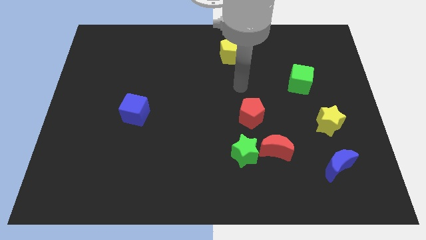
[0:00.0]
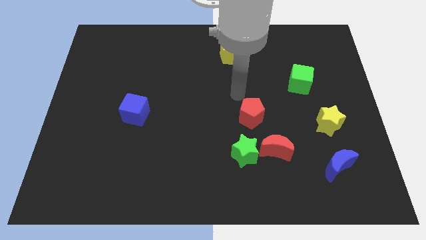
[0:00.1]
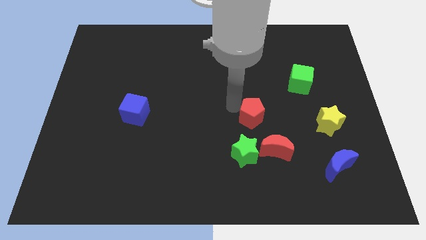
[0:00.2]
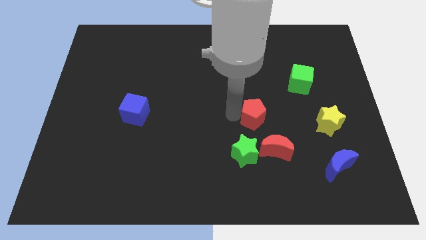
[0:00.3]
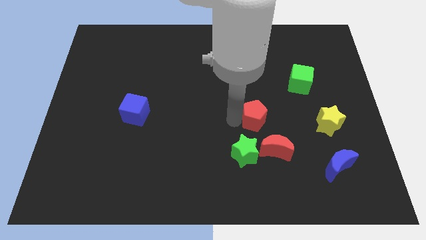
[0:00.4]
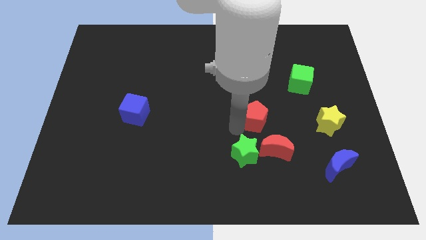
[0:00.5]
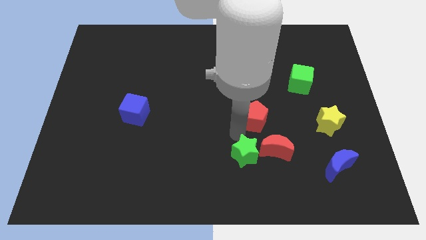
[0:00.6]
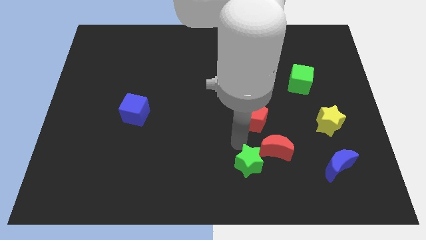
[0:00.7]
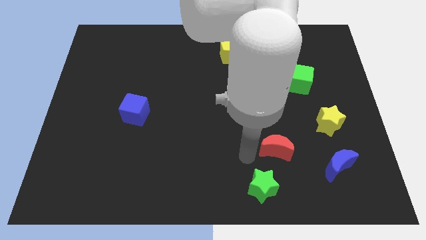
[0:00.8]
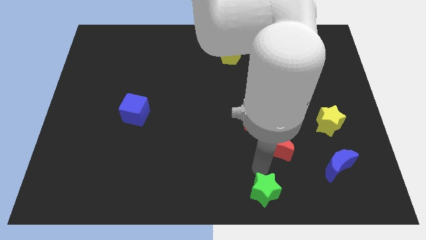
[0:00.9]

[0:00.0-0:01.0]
separate the red moon from the green star

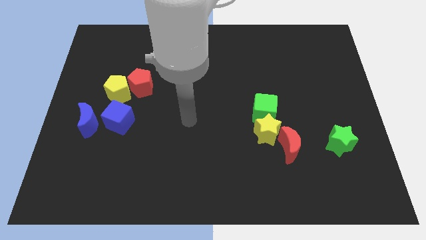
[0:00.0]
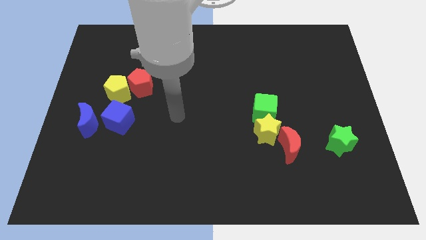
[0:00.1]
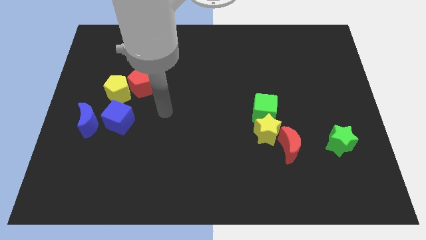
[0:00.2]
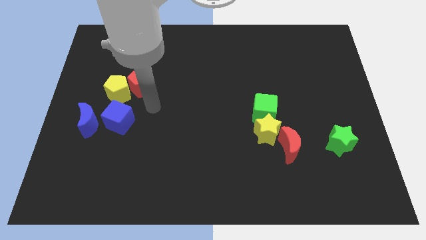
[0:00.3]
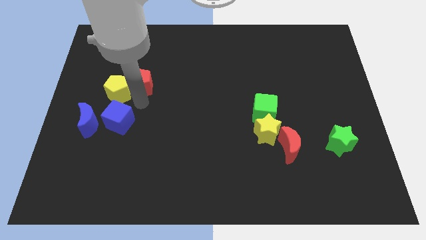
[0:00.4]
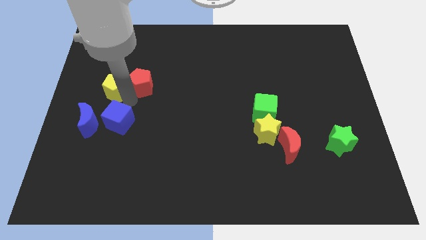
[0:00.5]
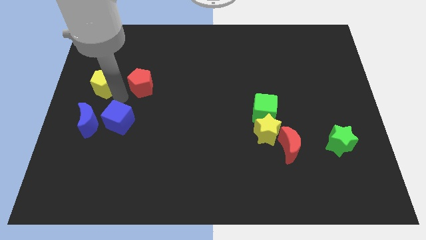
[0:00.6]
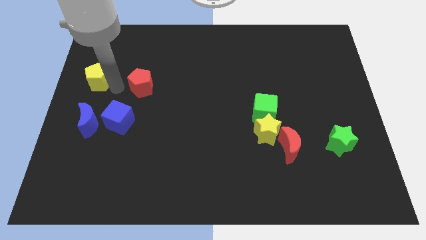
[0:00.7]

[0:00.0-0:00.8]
separate the red pentagon from the yellow pentagon

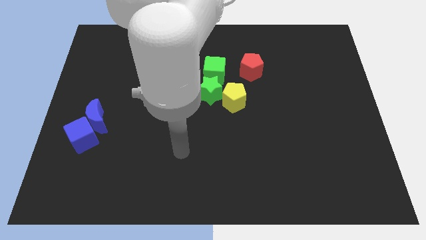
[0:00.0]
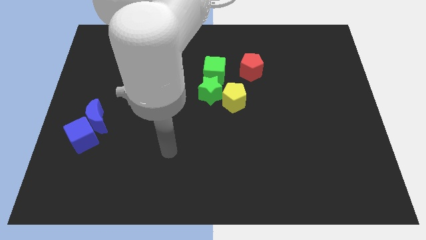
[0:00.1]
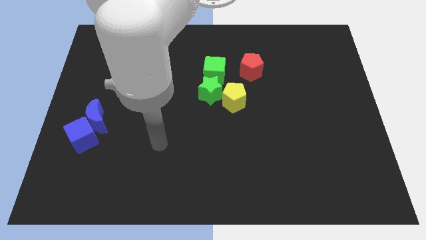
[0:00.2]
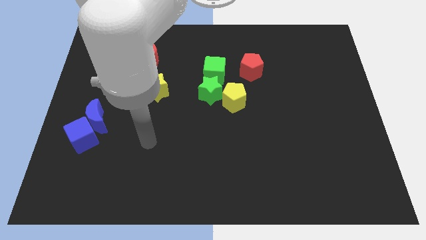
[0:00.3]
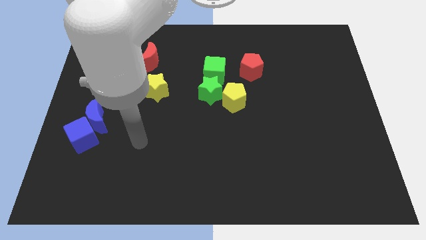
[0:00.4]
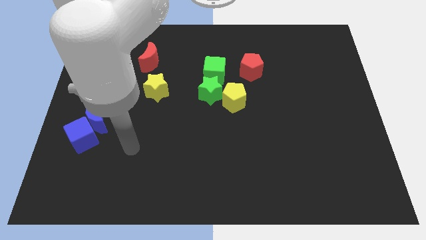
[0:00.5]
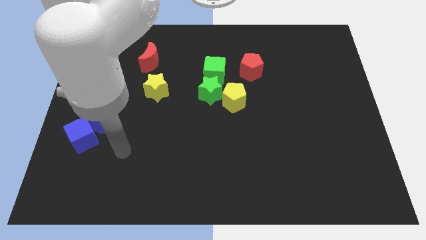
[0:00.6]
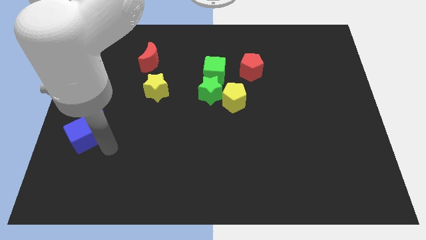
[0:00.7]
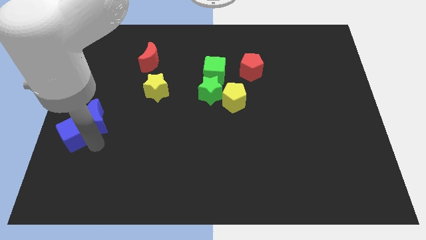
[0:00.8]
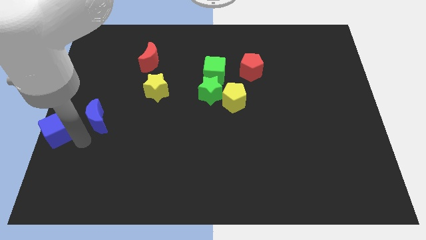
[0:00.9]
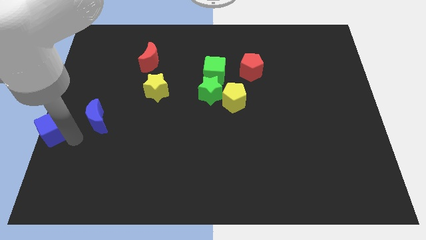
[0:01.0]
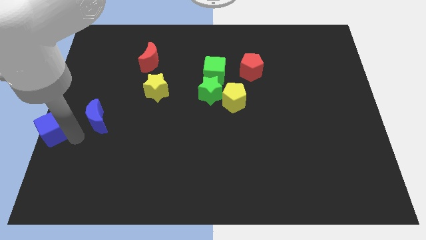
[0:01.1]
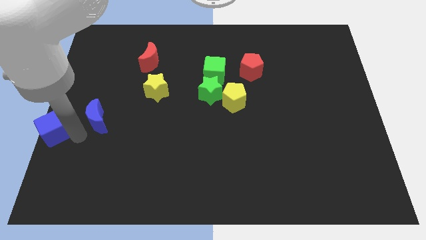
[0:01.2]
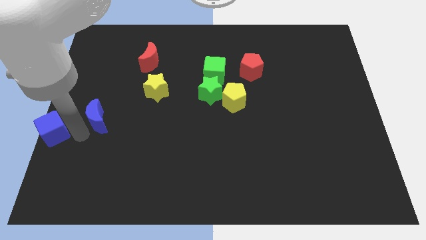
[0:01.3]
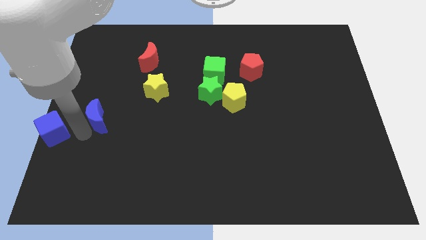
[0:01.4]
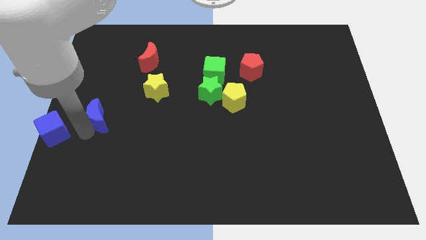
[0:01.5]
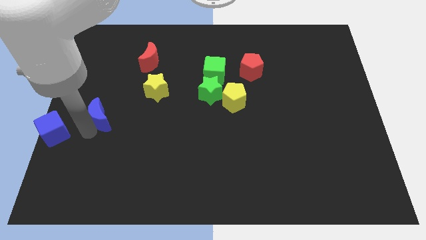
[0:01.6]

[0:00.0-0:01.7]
move the blue moon away from the blue cube

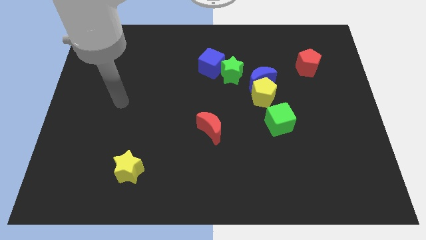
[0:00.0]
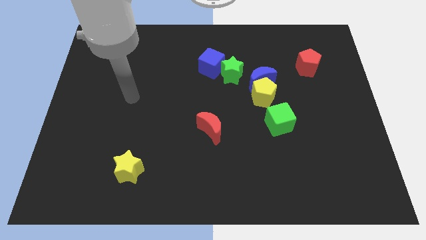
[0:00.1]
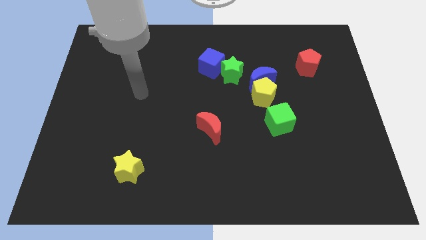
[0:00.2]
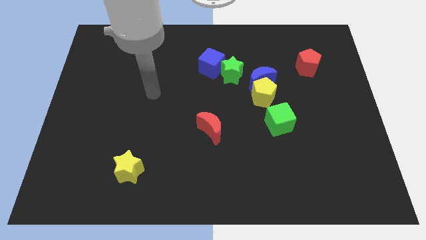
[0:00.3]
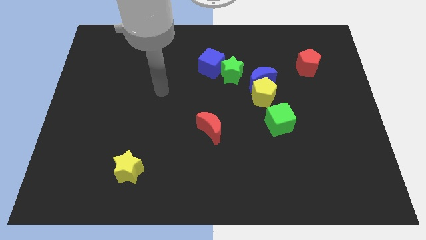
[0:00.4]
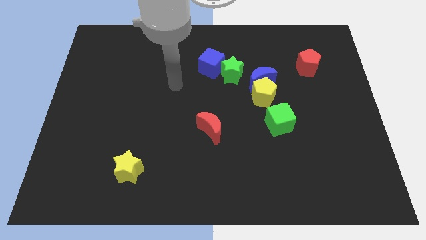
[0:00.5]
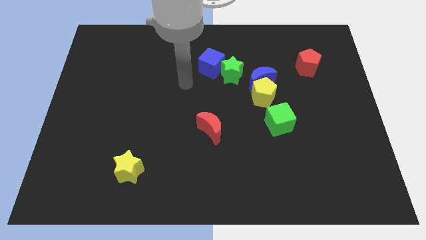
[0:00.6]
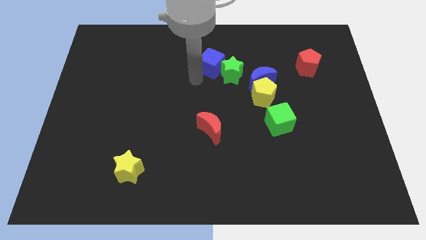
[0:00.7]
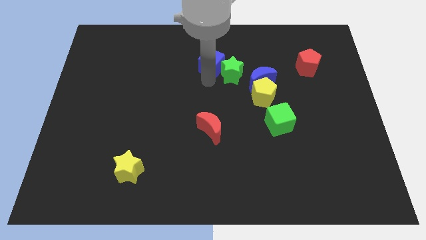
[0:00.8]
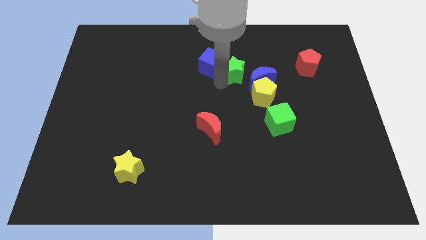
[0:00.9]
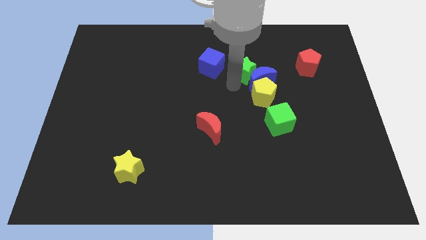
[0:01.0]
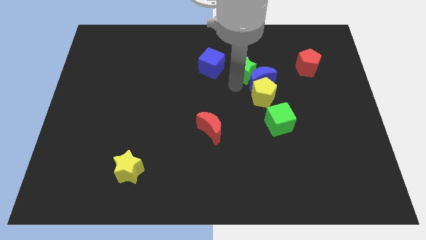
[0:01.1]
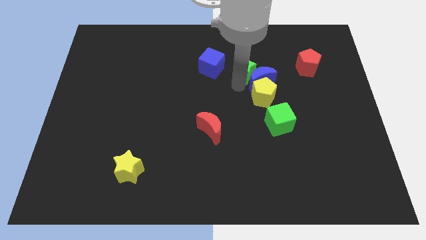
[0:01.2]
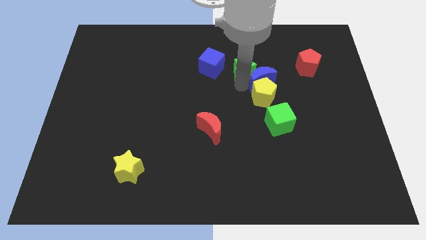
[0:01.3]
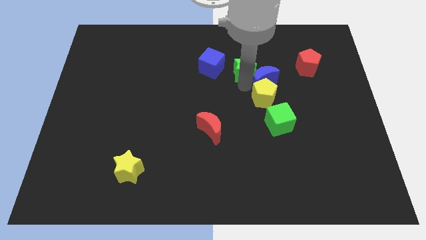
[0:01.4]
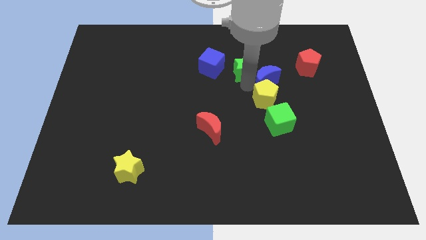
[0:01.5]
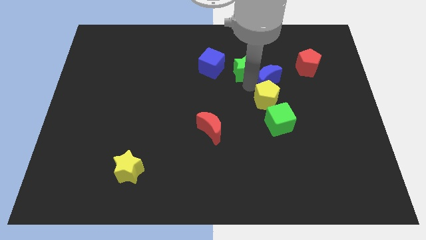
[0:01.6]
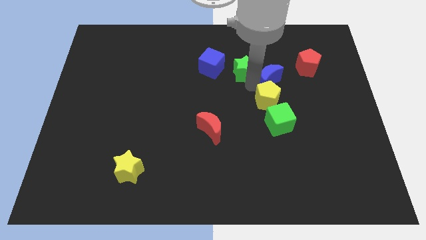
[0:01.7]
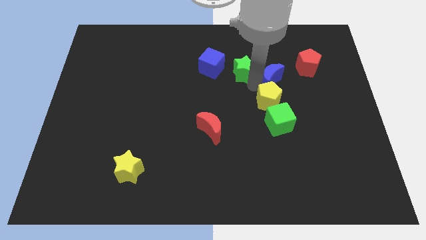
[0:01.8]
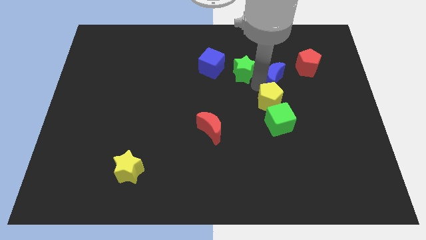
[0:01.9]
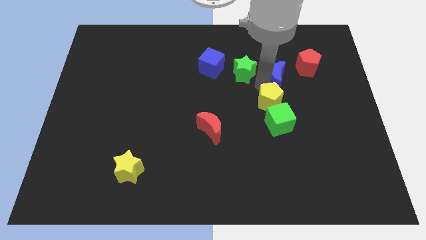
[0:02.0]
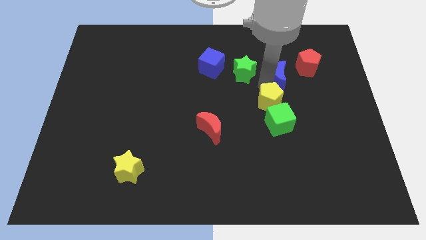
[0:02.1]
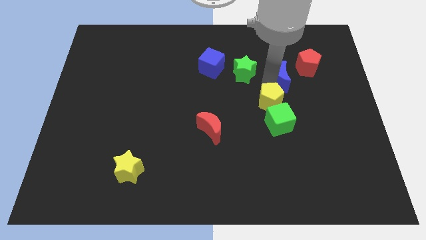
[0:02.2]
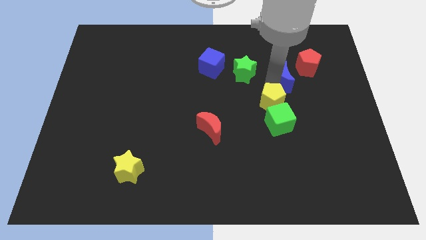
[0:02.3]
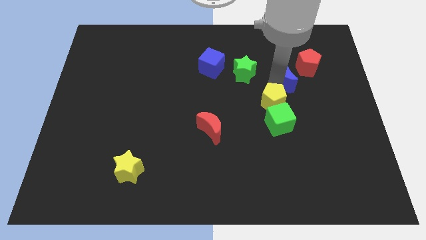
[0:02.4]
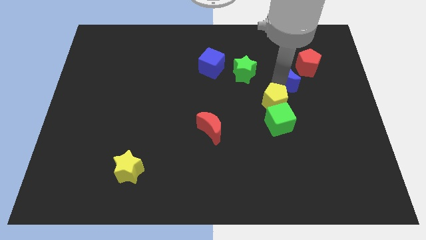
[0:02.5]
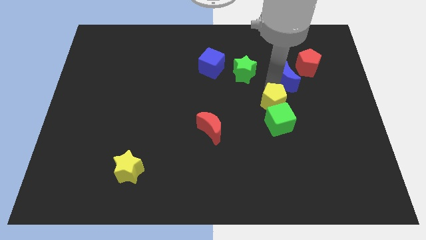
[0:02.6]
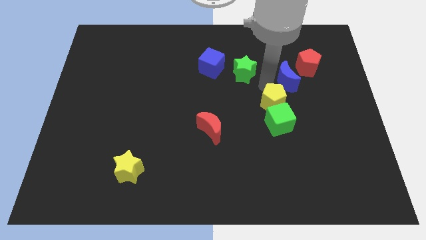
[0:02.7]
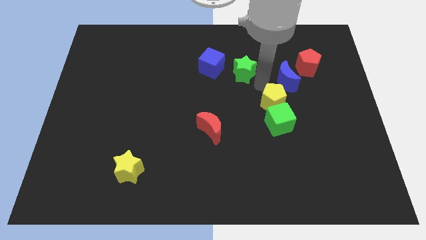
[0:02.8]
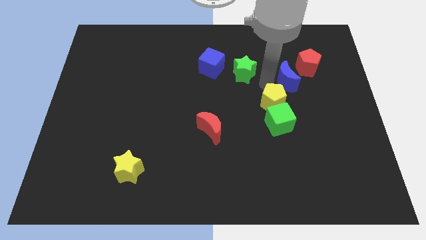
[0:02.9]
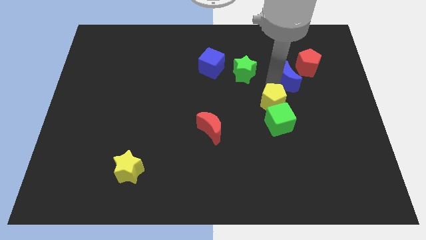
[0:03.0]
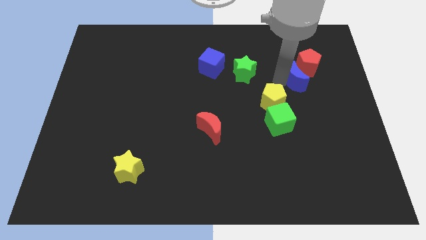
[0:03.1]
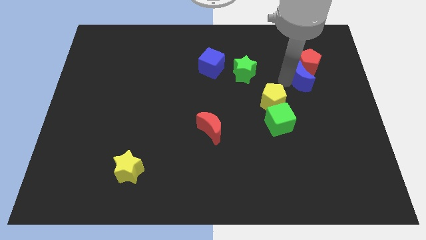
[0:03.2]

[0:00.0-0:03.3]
move the blue moon away from the yellow pentagon and green star

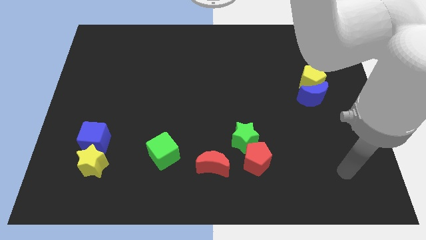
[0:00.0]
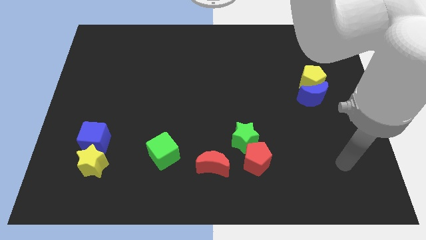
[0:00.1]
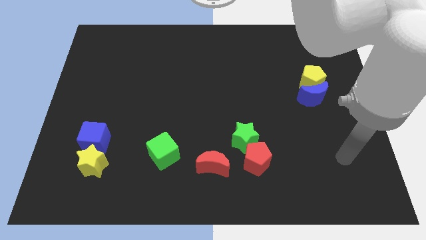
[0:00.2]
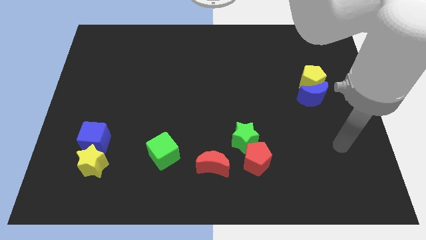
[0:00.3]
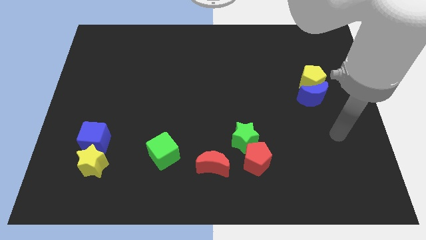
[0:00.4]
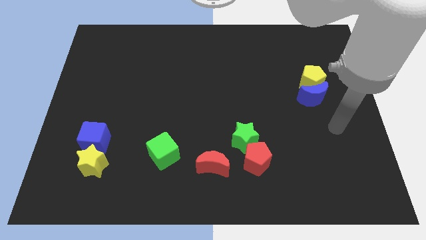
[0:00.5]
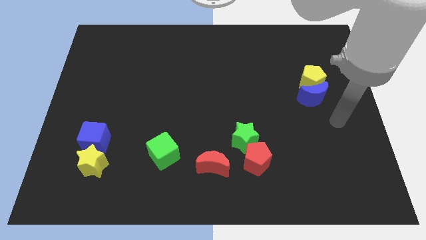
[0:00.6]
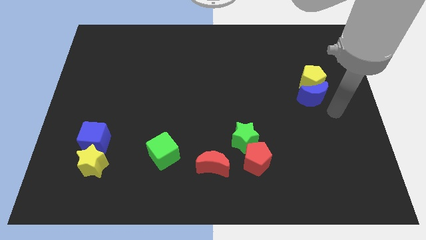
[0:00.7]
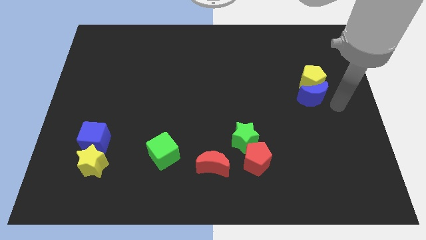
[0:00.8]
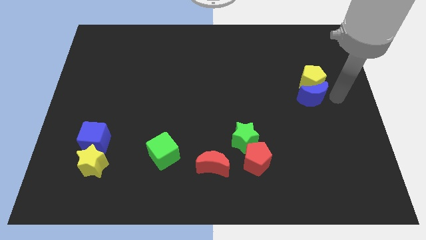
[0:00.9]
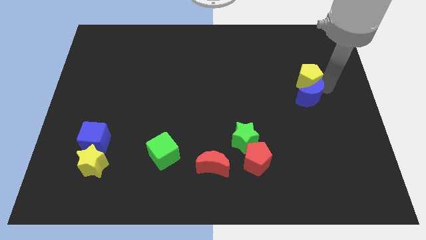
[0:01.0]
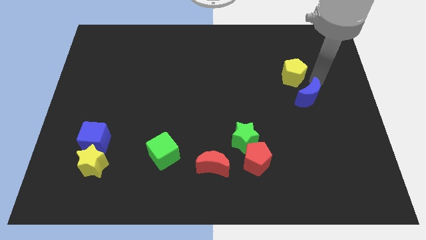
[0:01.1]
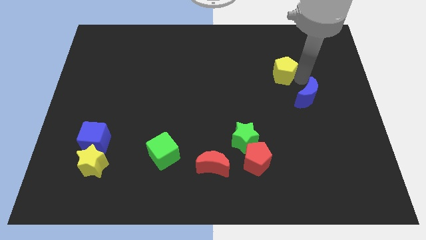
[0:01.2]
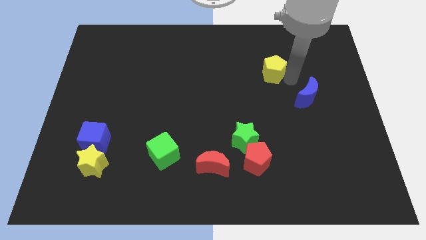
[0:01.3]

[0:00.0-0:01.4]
pull the blue moon apart from the yellow pentagon

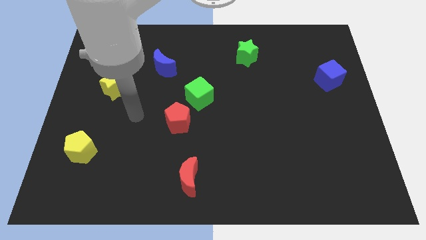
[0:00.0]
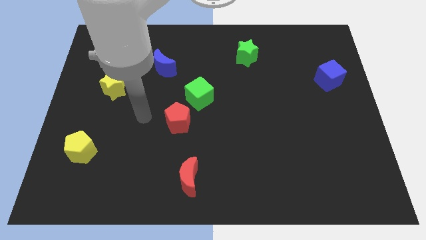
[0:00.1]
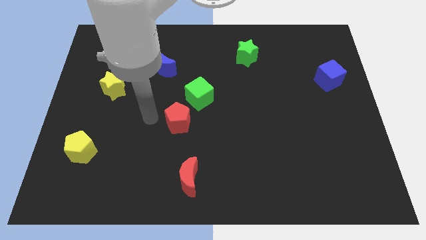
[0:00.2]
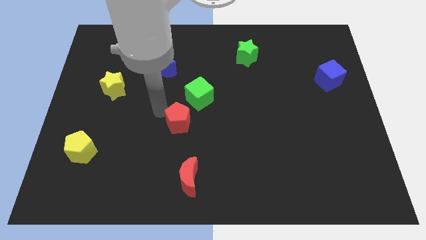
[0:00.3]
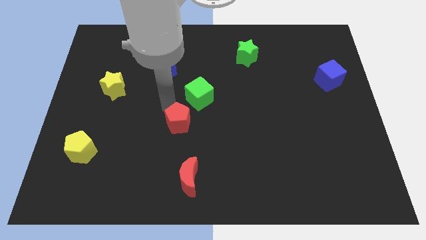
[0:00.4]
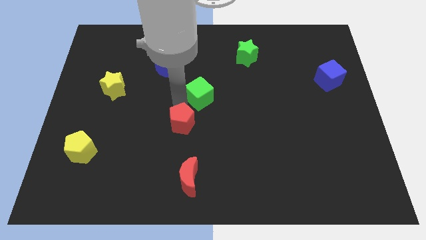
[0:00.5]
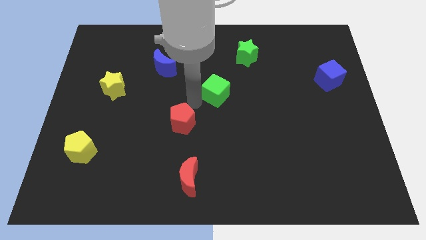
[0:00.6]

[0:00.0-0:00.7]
separate the red pentagon from the green cube

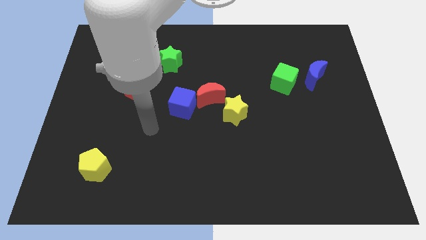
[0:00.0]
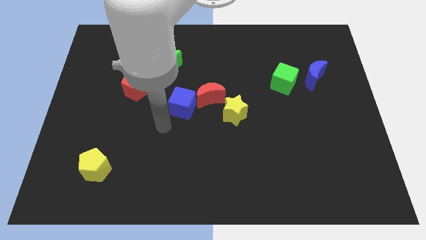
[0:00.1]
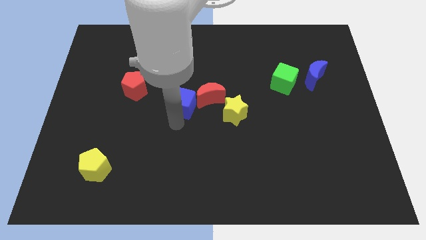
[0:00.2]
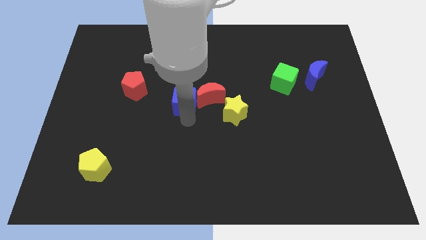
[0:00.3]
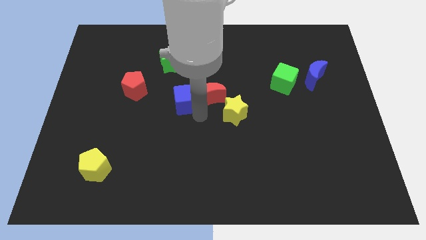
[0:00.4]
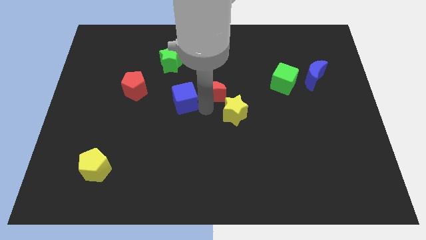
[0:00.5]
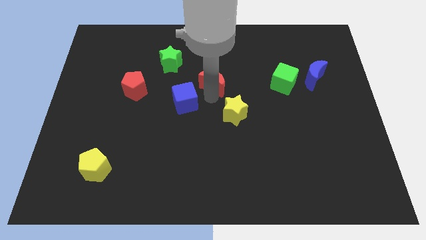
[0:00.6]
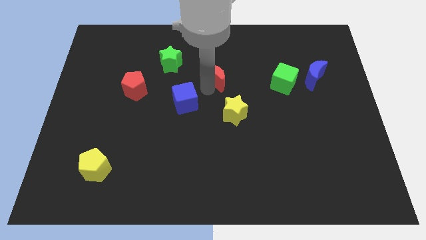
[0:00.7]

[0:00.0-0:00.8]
pull the blue cube apart from the red moon
